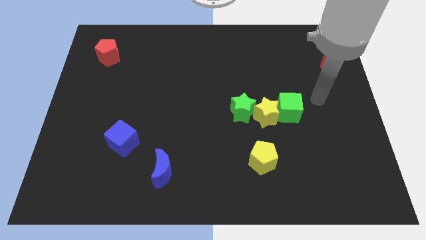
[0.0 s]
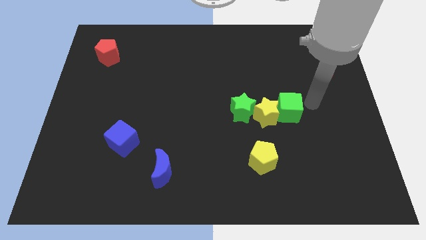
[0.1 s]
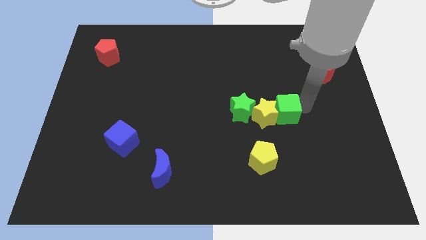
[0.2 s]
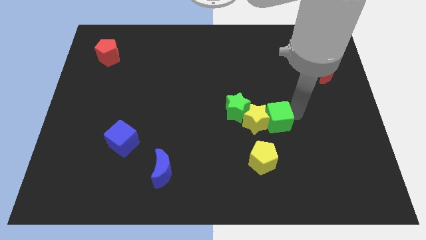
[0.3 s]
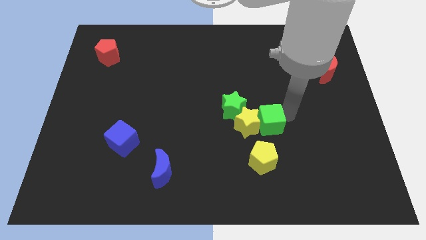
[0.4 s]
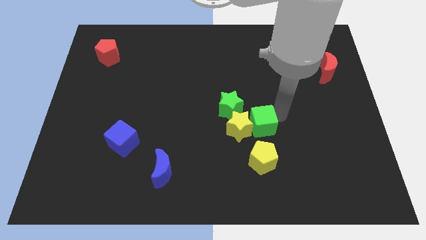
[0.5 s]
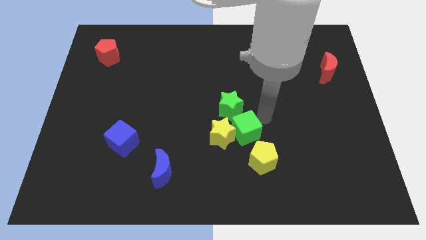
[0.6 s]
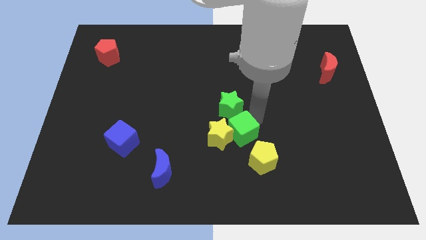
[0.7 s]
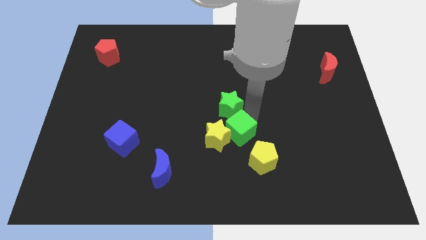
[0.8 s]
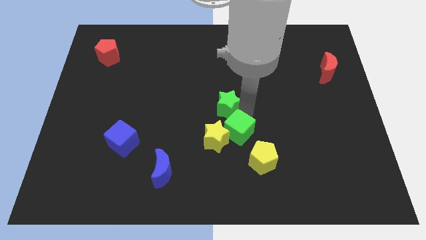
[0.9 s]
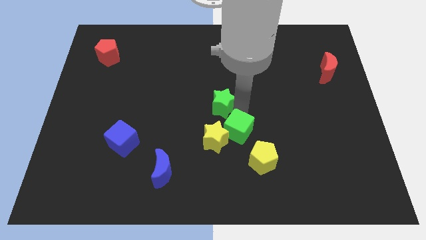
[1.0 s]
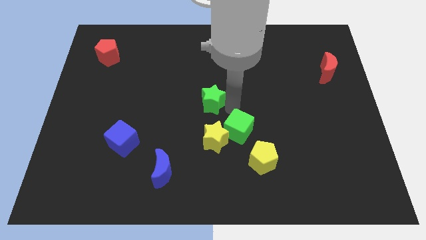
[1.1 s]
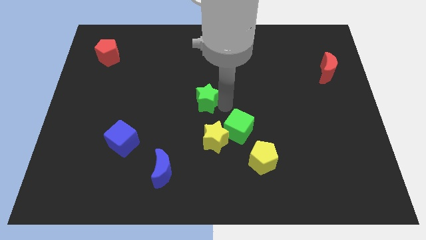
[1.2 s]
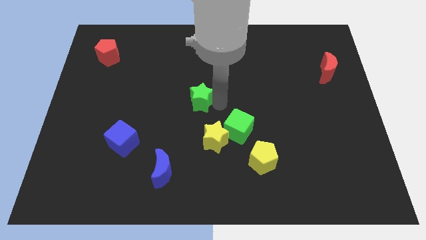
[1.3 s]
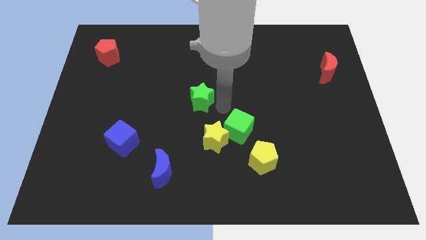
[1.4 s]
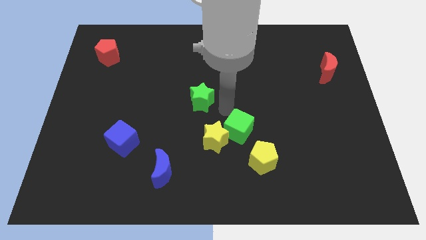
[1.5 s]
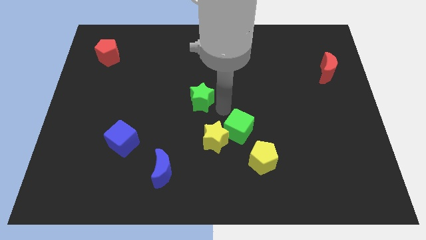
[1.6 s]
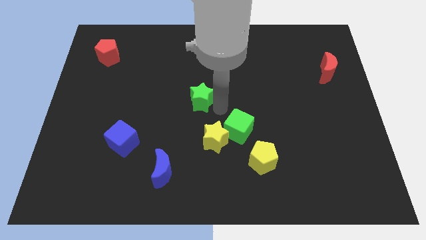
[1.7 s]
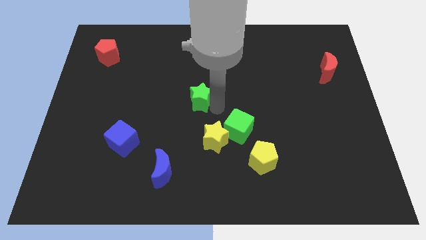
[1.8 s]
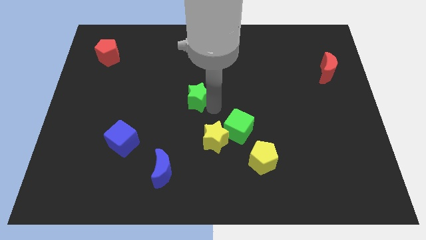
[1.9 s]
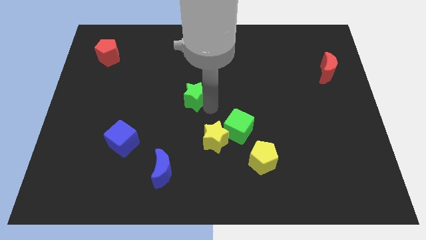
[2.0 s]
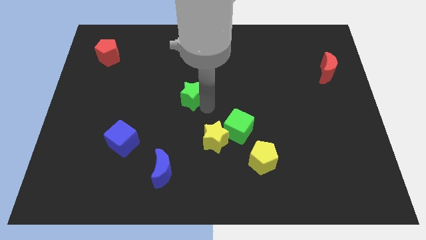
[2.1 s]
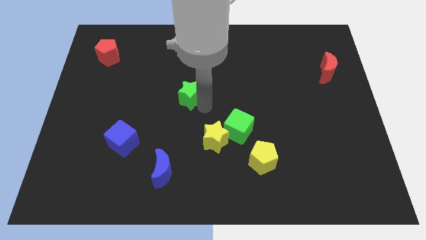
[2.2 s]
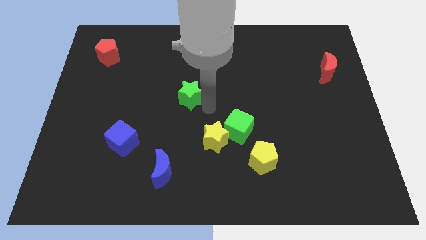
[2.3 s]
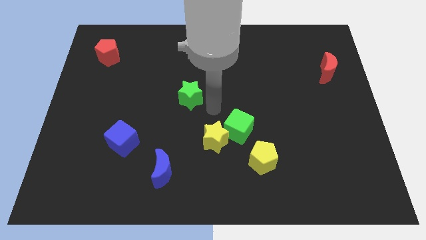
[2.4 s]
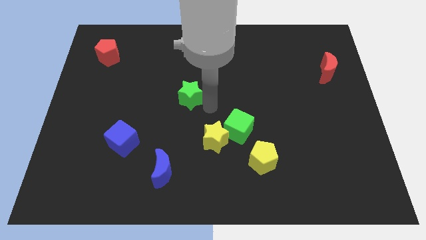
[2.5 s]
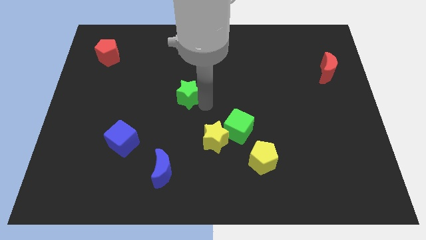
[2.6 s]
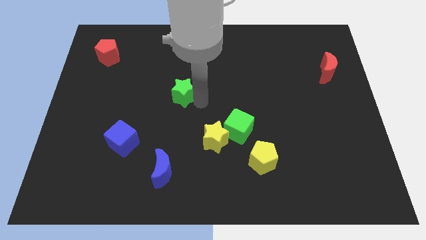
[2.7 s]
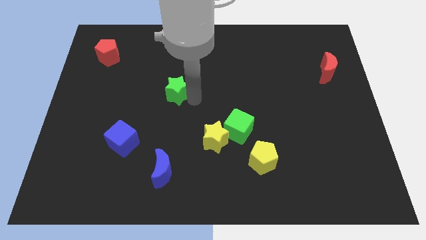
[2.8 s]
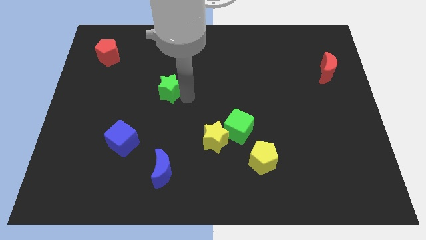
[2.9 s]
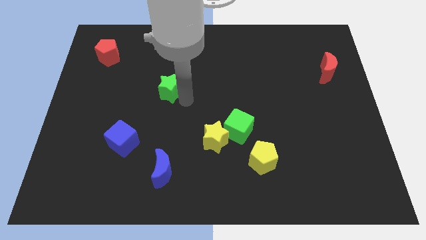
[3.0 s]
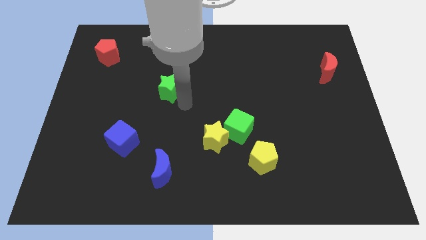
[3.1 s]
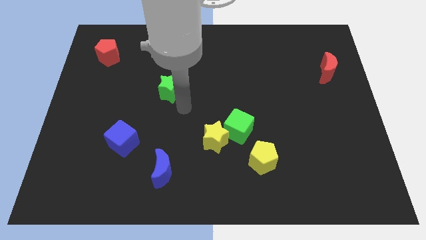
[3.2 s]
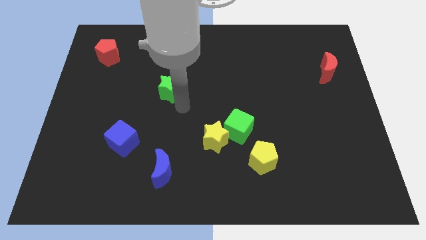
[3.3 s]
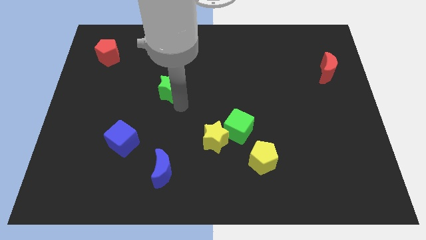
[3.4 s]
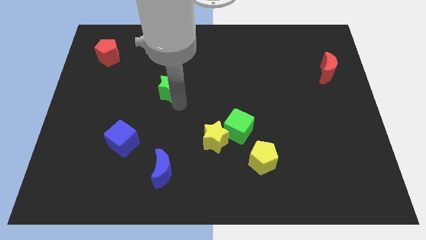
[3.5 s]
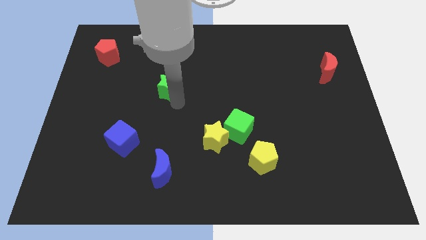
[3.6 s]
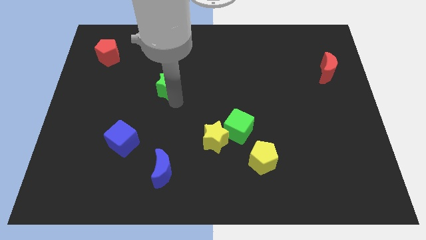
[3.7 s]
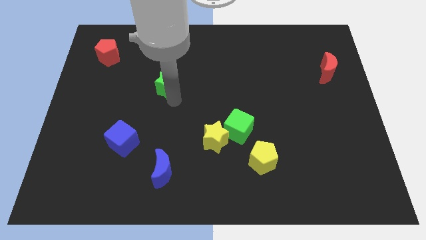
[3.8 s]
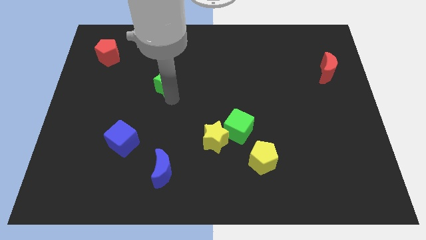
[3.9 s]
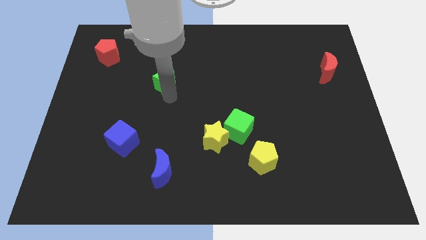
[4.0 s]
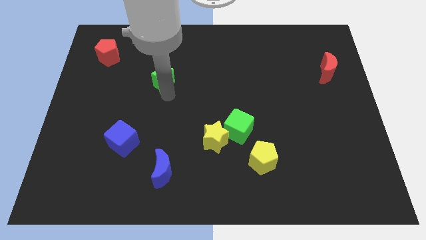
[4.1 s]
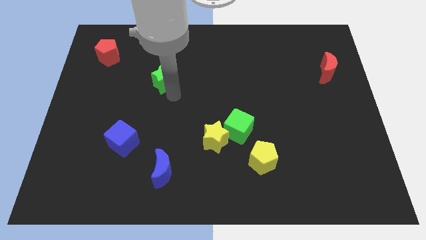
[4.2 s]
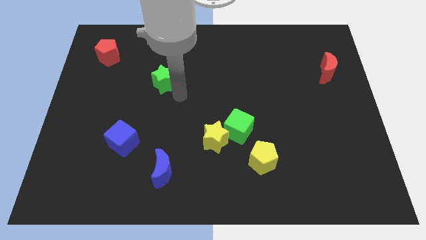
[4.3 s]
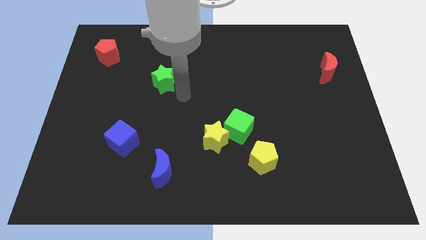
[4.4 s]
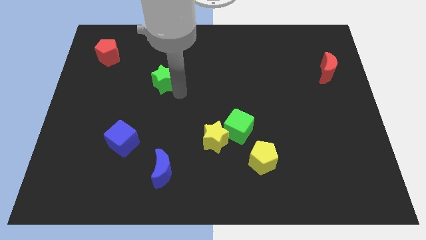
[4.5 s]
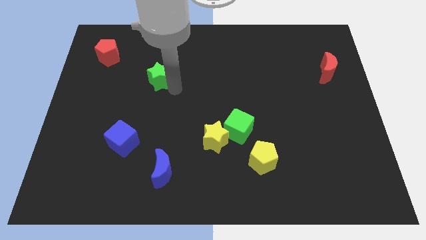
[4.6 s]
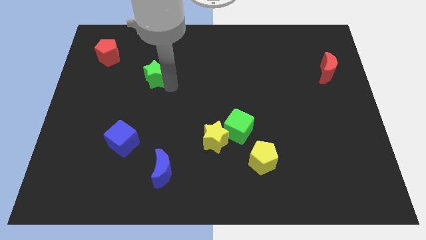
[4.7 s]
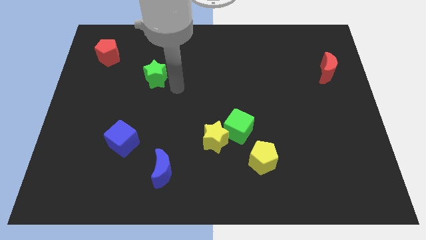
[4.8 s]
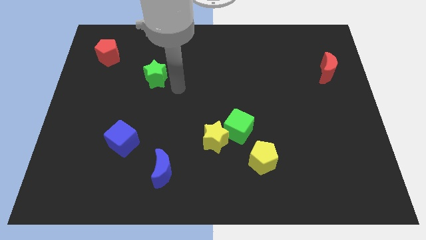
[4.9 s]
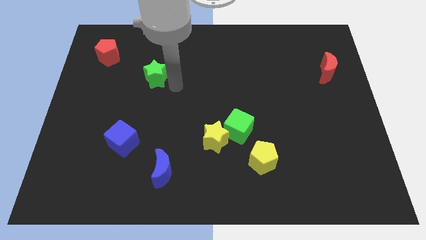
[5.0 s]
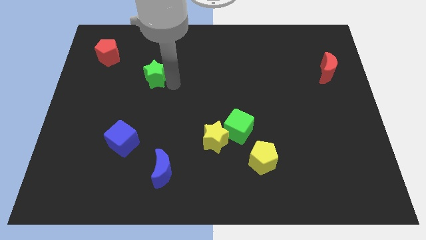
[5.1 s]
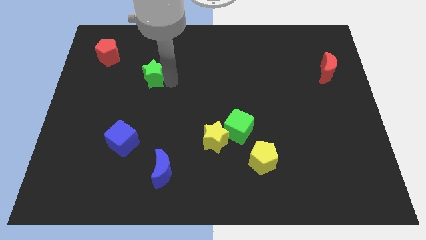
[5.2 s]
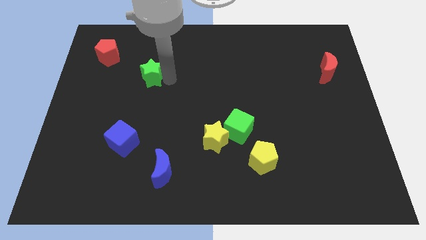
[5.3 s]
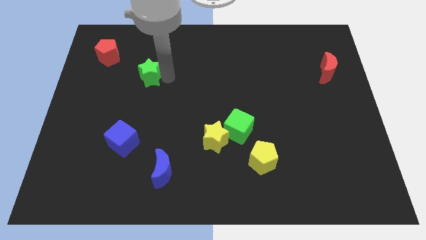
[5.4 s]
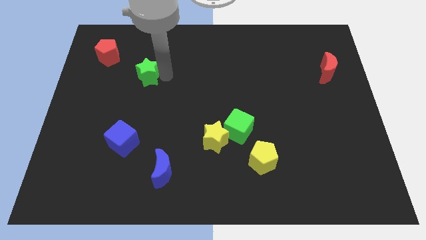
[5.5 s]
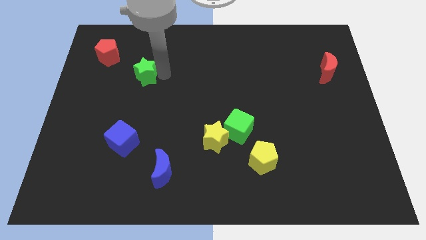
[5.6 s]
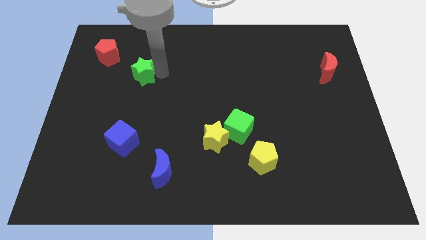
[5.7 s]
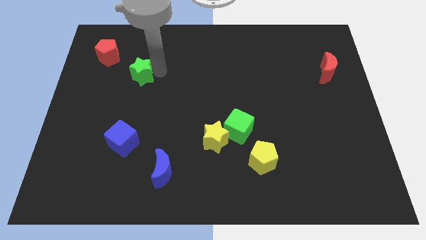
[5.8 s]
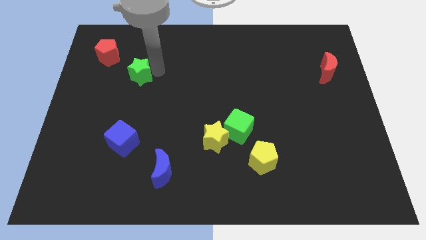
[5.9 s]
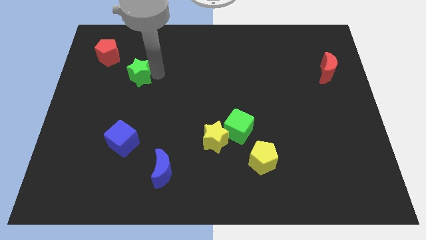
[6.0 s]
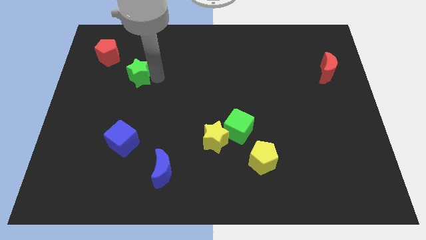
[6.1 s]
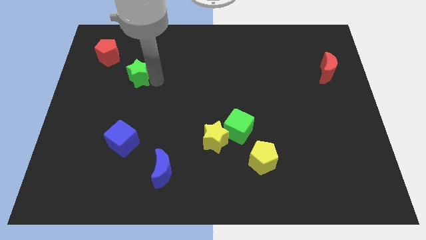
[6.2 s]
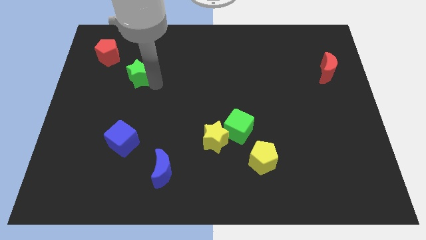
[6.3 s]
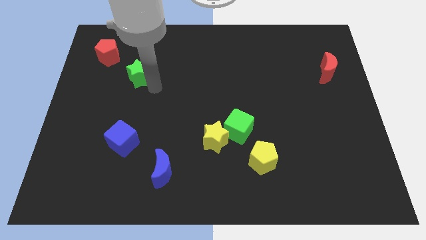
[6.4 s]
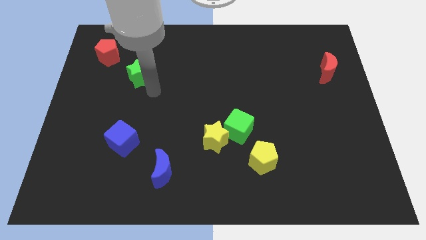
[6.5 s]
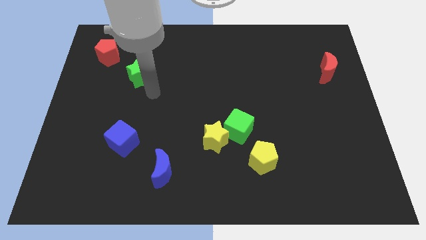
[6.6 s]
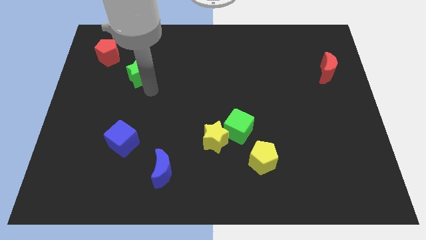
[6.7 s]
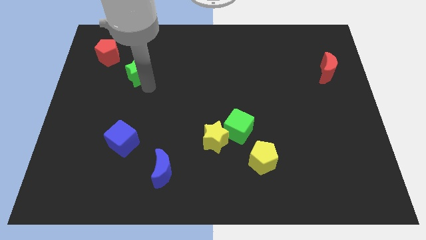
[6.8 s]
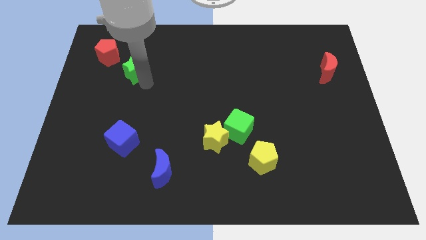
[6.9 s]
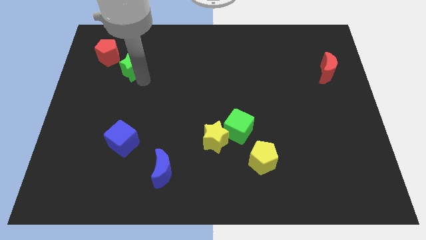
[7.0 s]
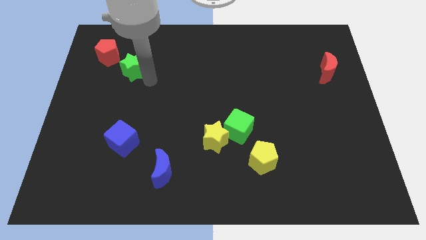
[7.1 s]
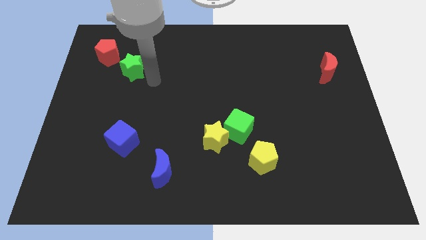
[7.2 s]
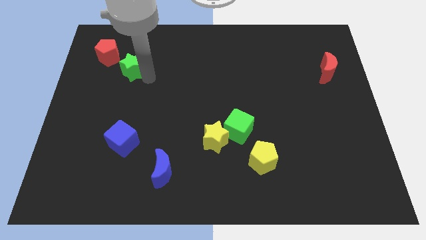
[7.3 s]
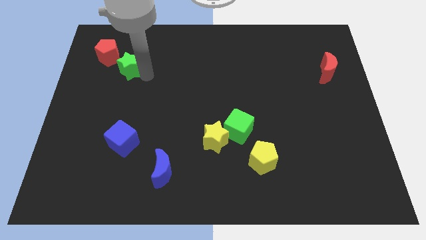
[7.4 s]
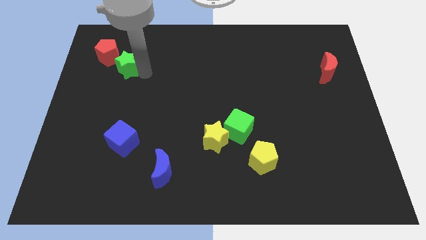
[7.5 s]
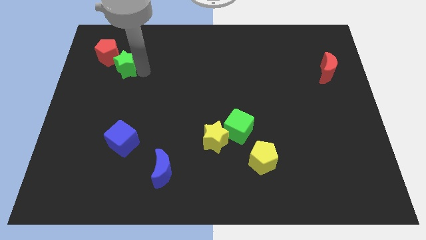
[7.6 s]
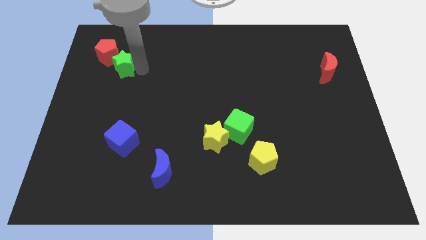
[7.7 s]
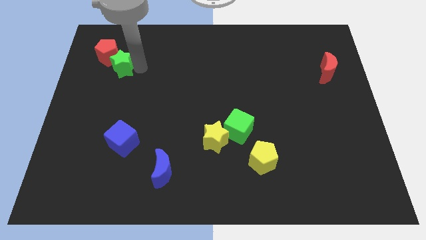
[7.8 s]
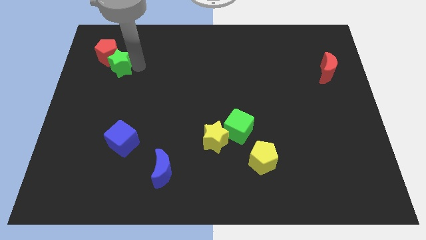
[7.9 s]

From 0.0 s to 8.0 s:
put the green star close to the red pentagon

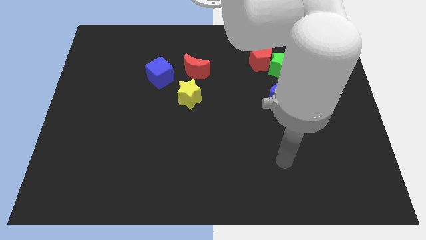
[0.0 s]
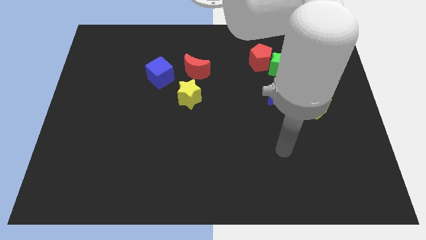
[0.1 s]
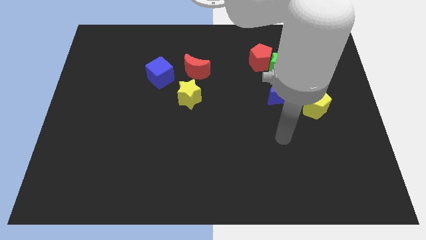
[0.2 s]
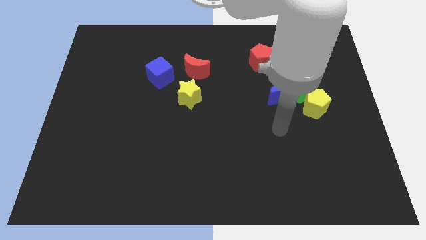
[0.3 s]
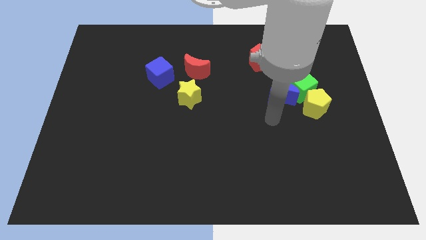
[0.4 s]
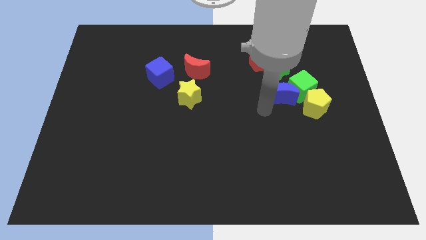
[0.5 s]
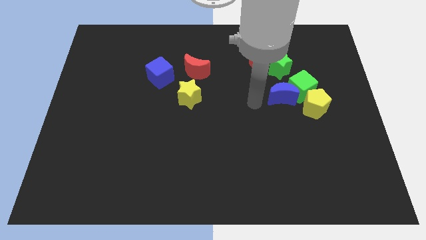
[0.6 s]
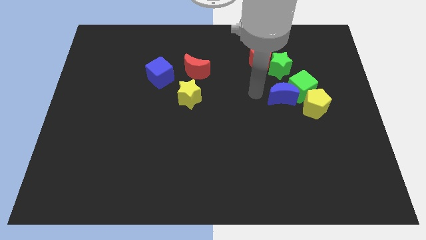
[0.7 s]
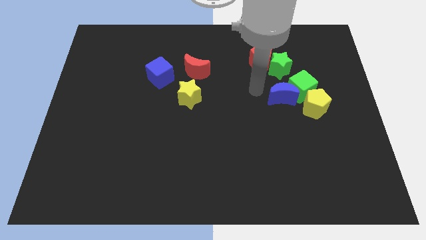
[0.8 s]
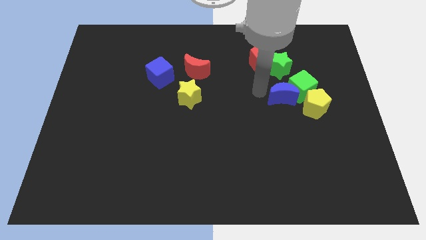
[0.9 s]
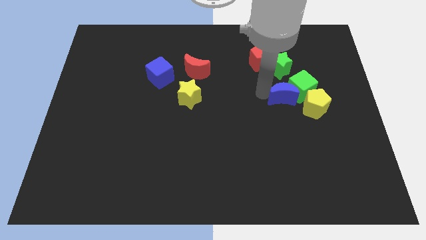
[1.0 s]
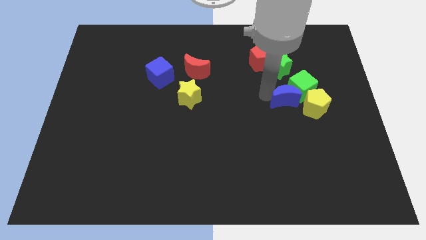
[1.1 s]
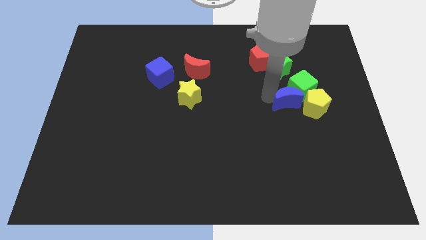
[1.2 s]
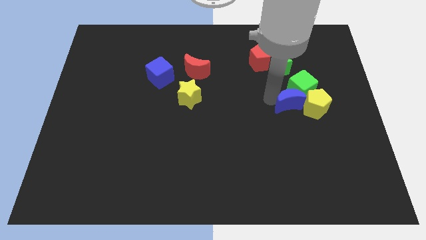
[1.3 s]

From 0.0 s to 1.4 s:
put the blue moon next to the yellow pentagon
